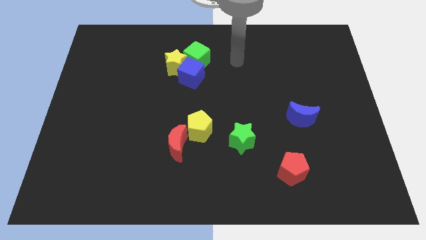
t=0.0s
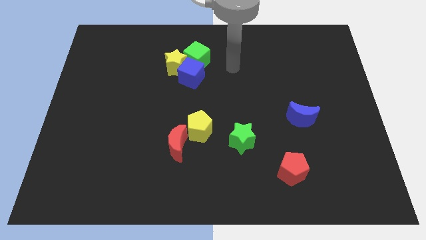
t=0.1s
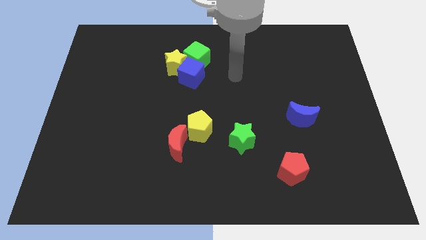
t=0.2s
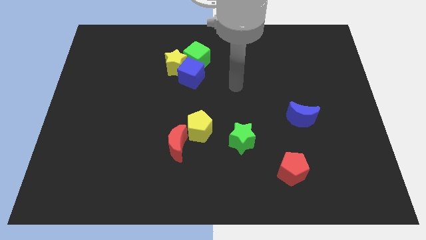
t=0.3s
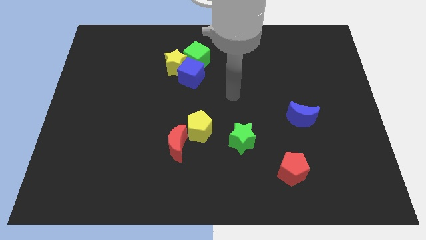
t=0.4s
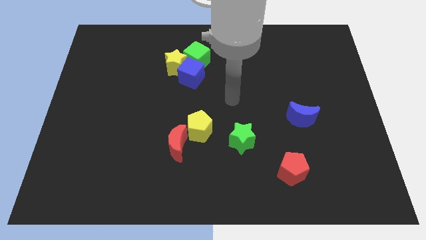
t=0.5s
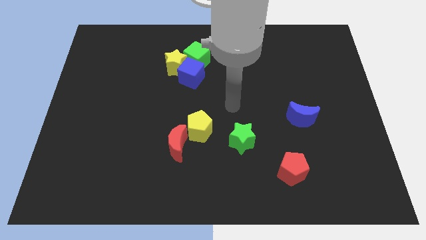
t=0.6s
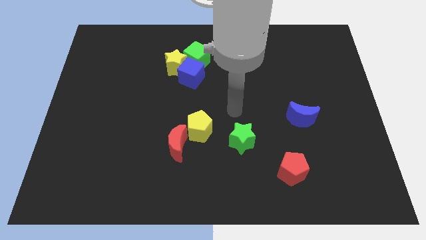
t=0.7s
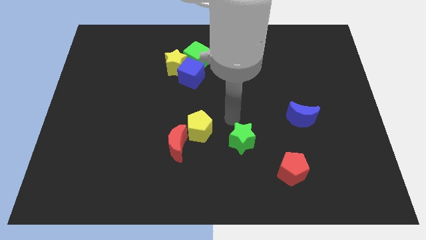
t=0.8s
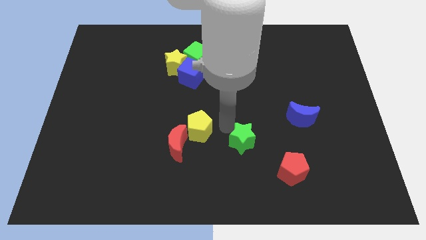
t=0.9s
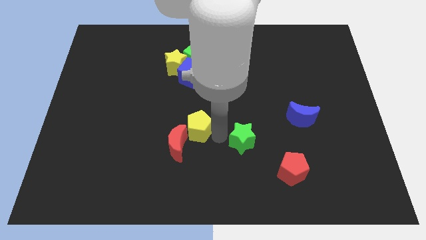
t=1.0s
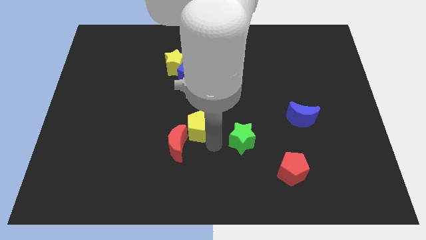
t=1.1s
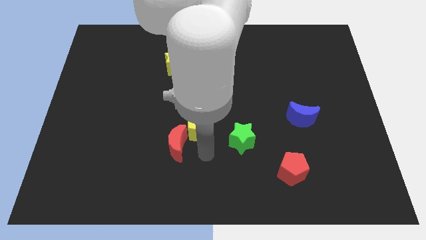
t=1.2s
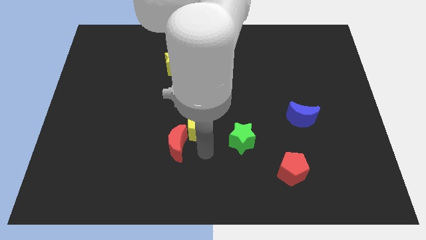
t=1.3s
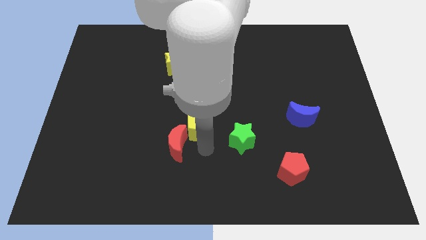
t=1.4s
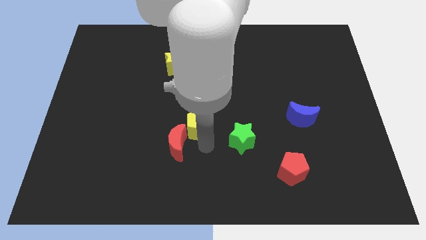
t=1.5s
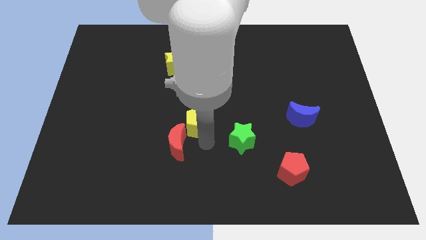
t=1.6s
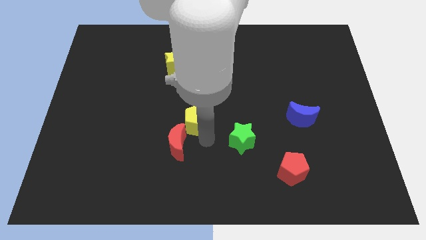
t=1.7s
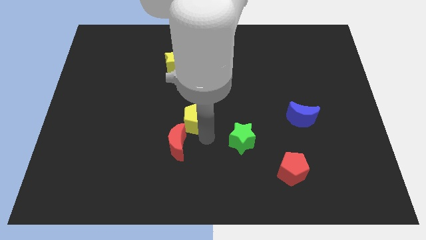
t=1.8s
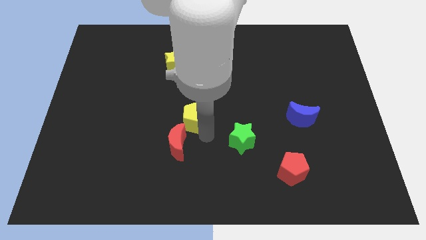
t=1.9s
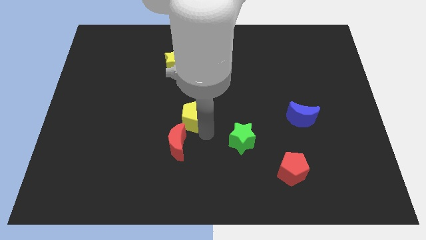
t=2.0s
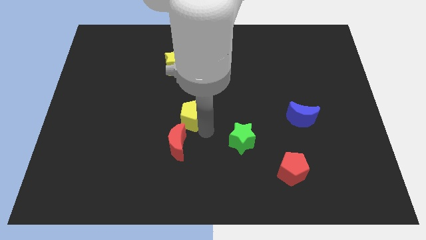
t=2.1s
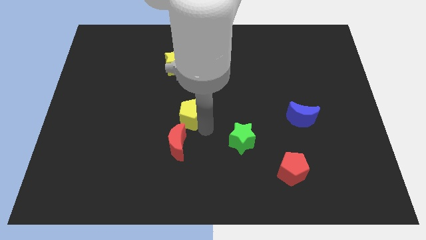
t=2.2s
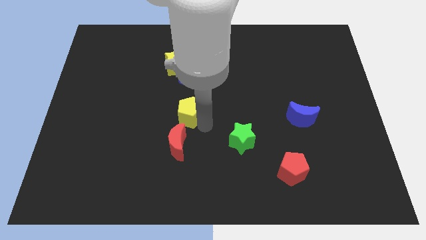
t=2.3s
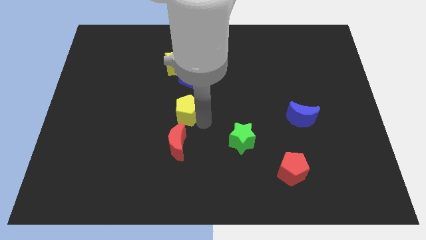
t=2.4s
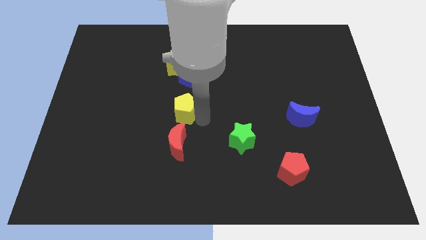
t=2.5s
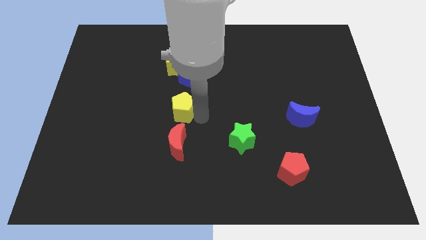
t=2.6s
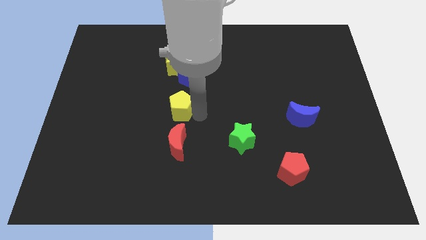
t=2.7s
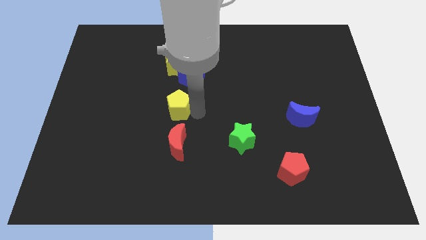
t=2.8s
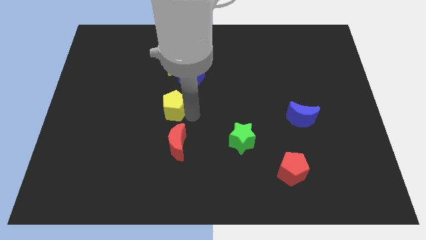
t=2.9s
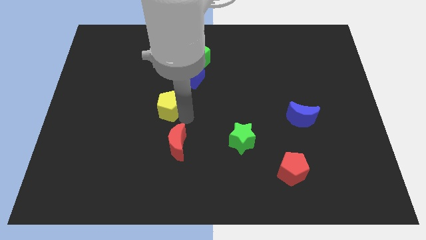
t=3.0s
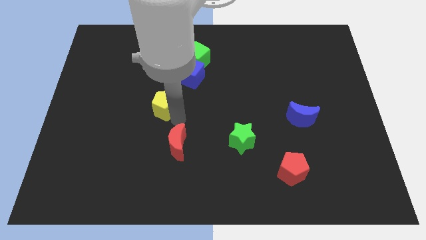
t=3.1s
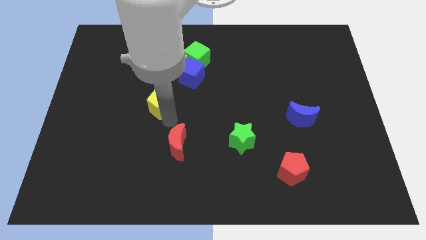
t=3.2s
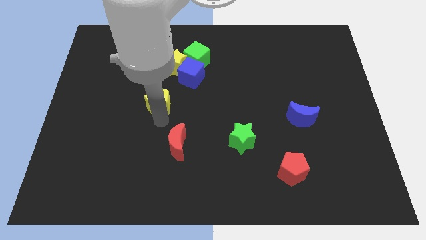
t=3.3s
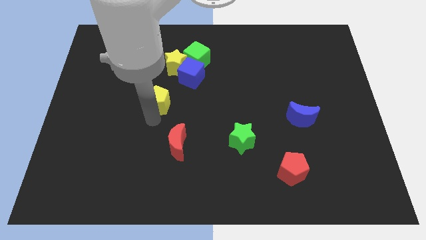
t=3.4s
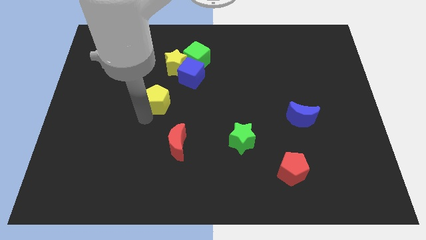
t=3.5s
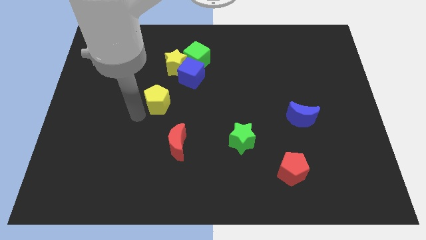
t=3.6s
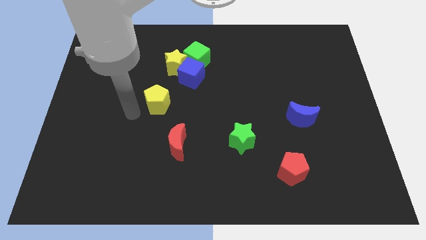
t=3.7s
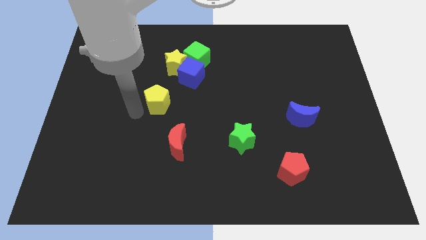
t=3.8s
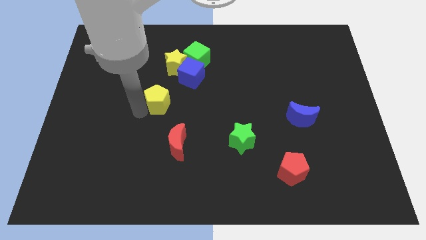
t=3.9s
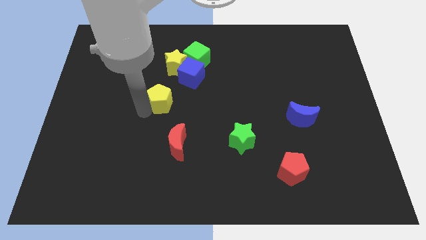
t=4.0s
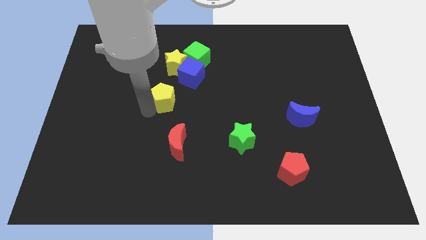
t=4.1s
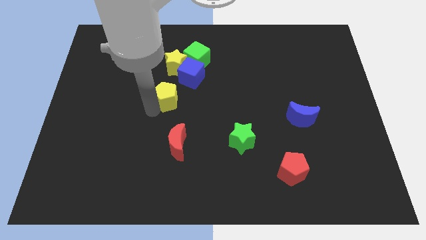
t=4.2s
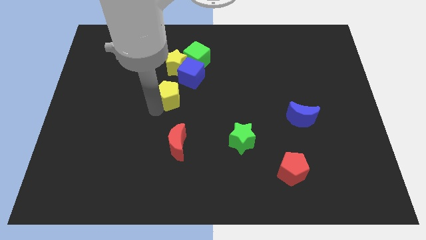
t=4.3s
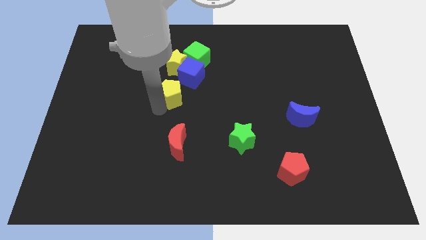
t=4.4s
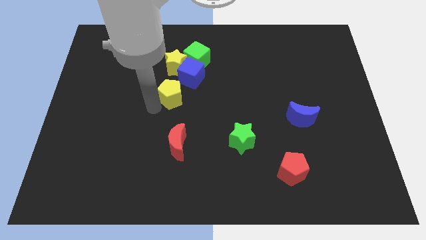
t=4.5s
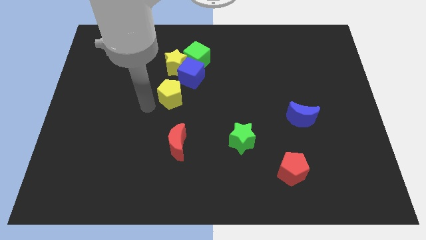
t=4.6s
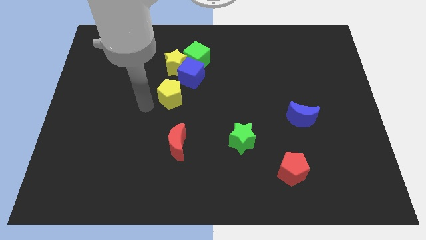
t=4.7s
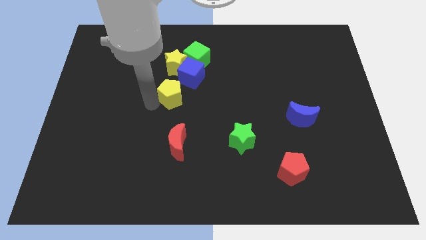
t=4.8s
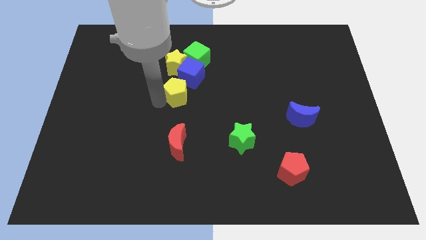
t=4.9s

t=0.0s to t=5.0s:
slide the yellow pentagon to the bottom of the green cube

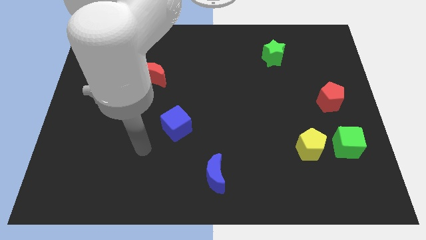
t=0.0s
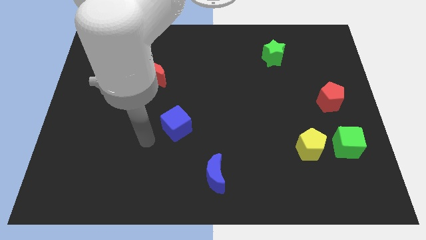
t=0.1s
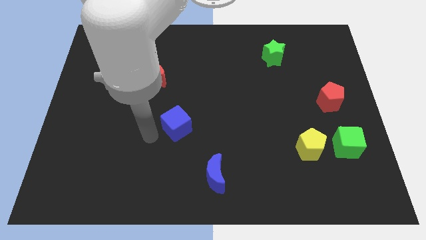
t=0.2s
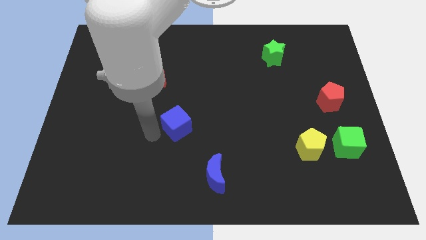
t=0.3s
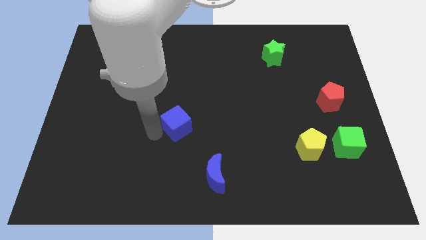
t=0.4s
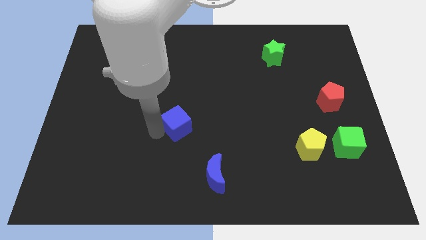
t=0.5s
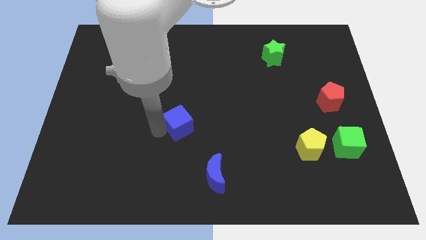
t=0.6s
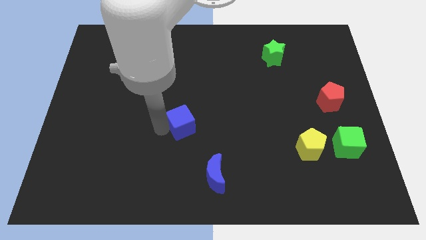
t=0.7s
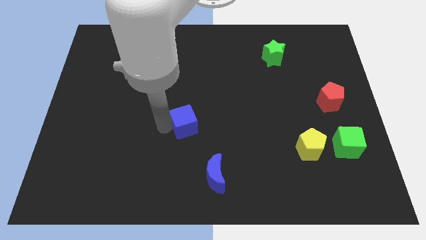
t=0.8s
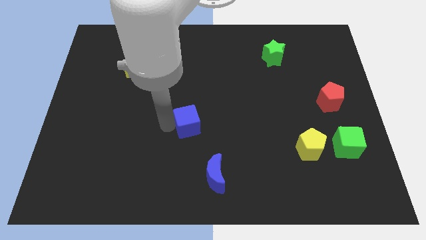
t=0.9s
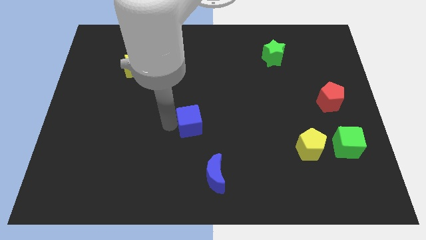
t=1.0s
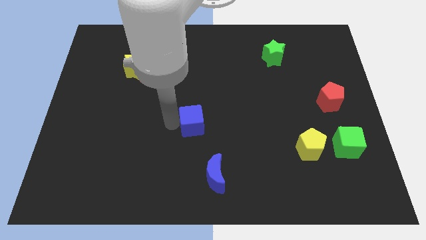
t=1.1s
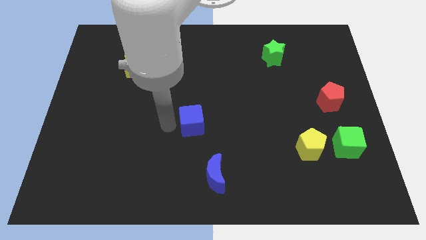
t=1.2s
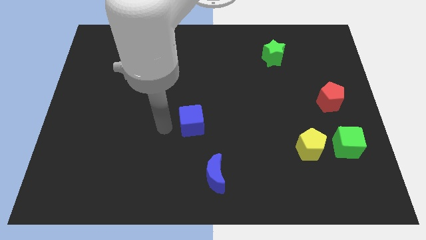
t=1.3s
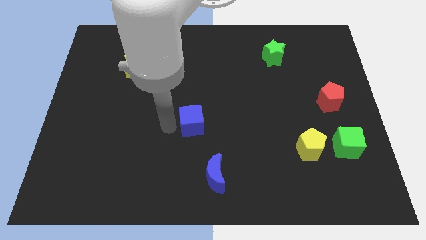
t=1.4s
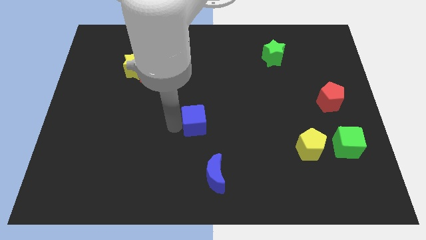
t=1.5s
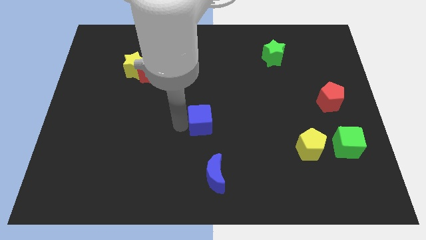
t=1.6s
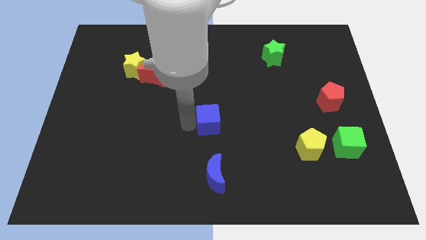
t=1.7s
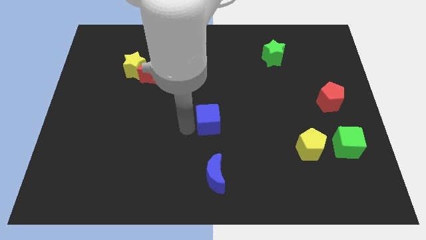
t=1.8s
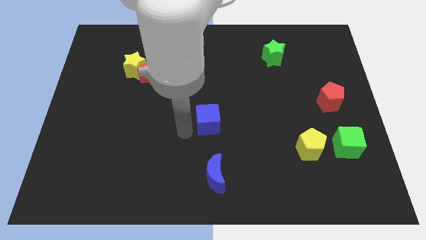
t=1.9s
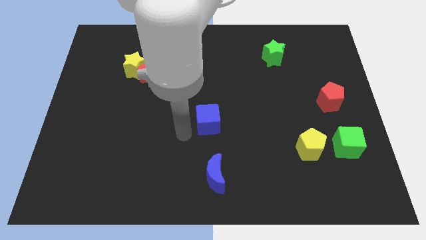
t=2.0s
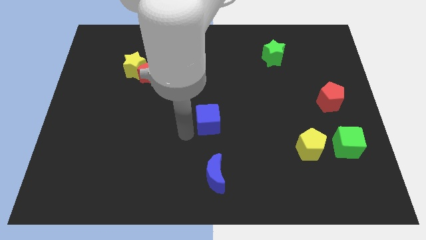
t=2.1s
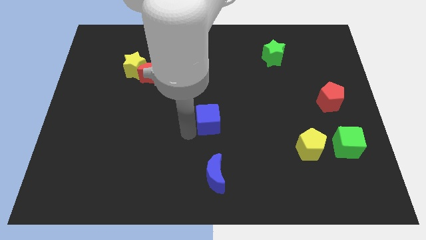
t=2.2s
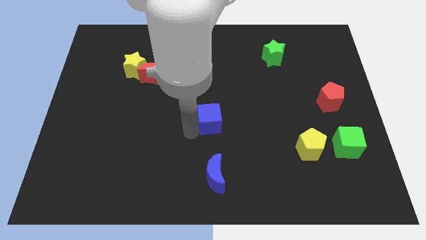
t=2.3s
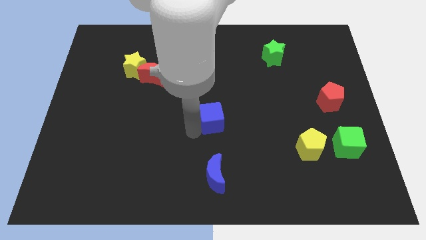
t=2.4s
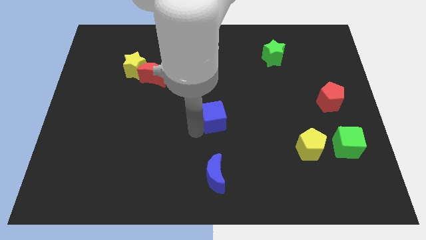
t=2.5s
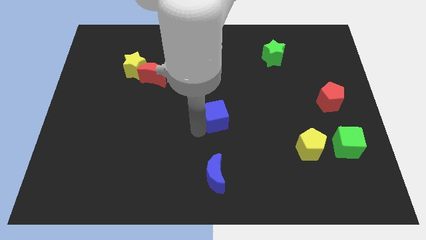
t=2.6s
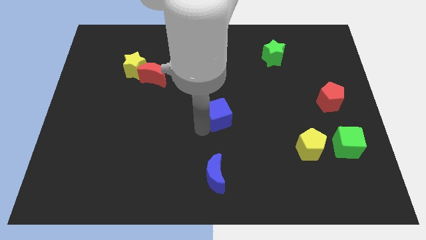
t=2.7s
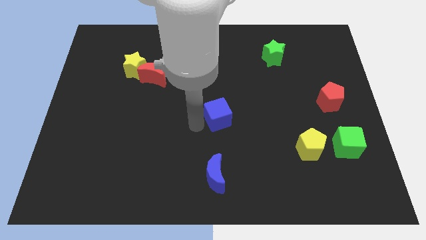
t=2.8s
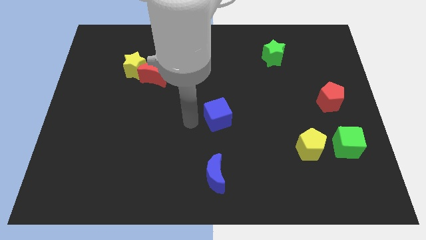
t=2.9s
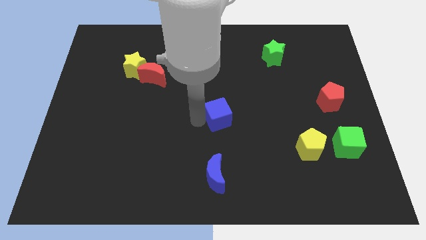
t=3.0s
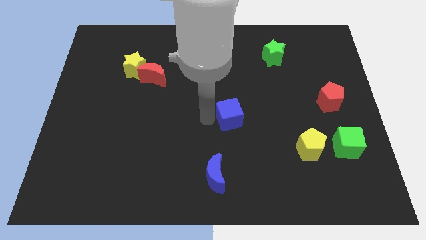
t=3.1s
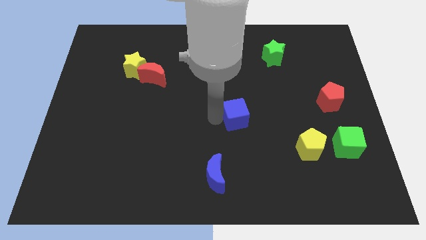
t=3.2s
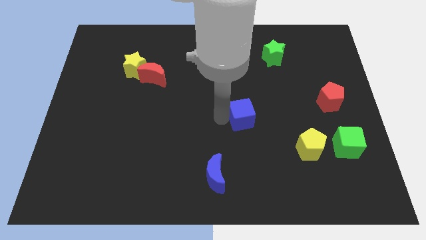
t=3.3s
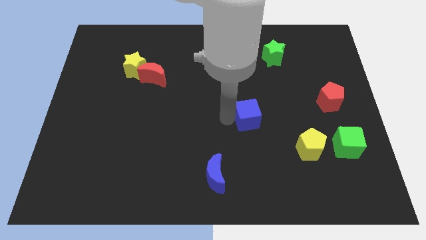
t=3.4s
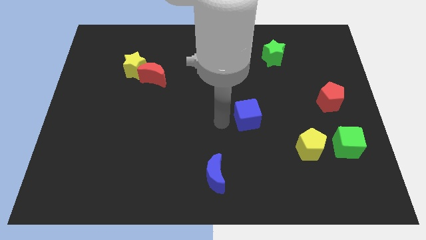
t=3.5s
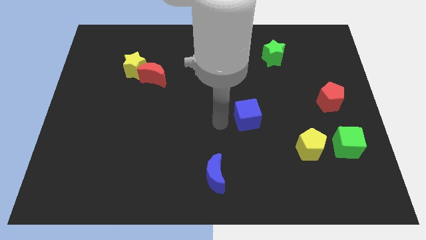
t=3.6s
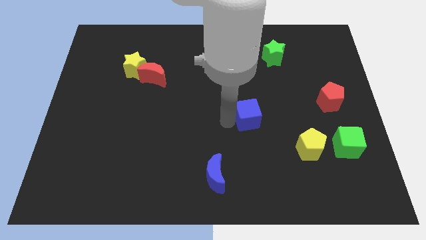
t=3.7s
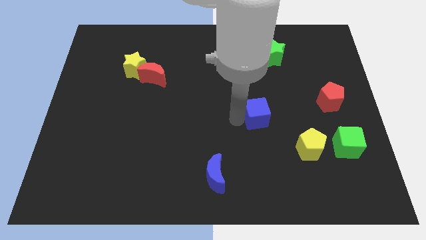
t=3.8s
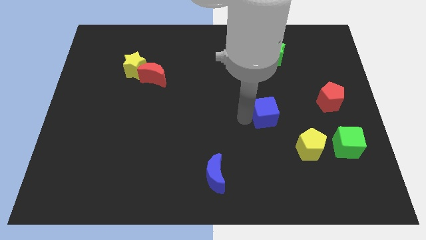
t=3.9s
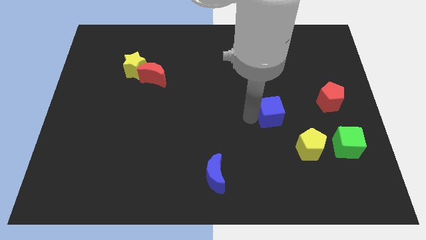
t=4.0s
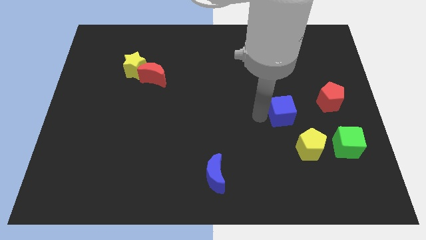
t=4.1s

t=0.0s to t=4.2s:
move the blue cube above the yellow pentagon
